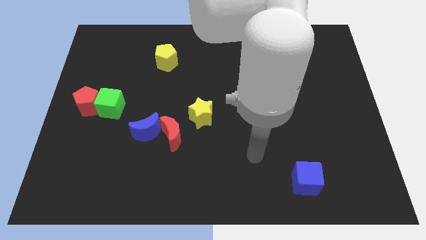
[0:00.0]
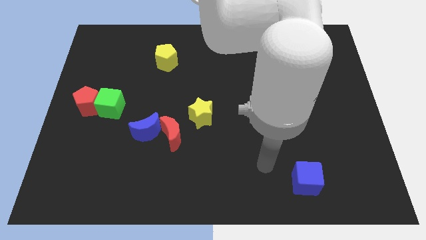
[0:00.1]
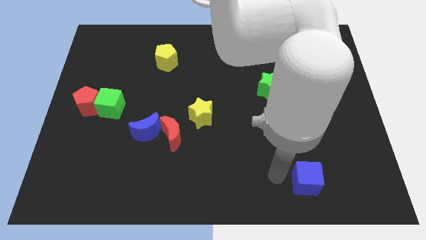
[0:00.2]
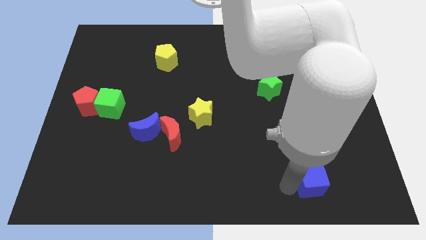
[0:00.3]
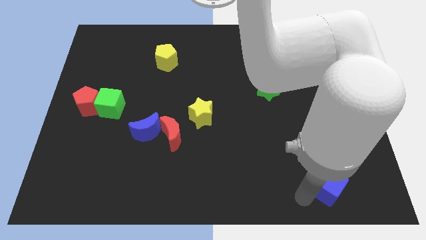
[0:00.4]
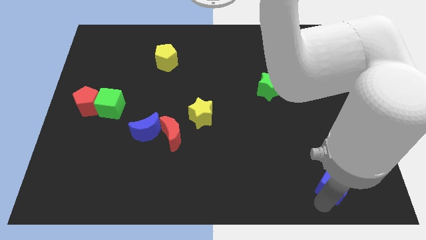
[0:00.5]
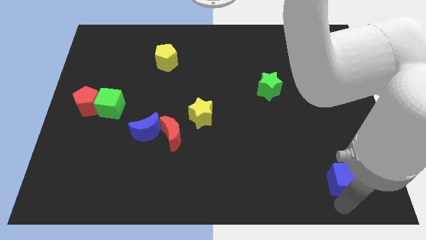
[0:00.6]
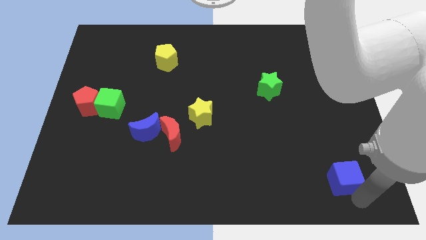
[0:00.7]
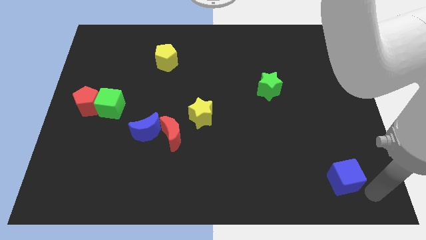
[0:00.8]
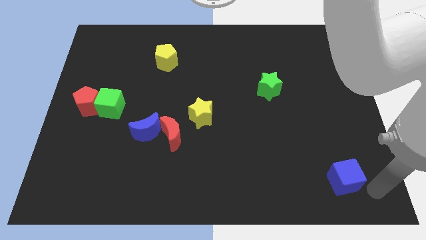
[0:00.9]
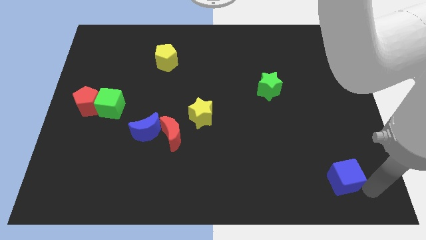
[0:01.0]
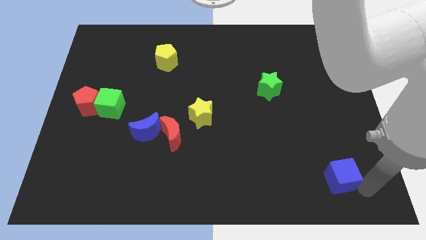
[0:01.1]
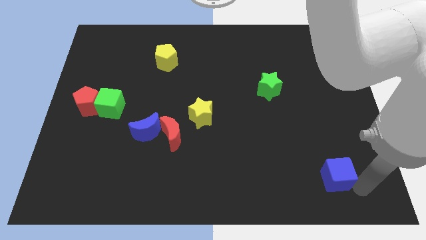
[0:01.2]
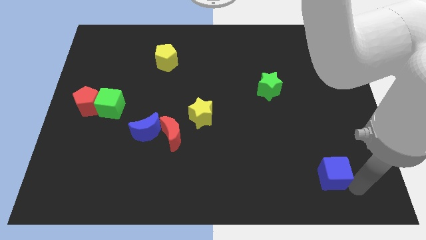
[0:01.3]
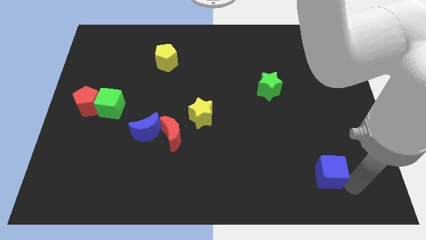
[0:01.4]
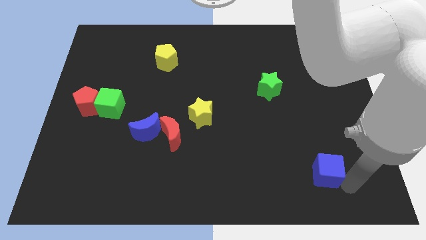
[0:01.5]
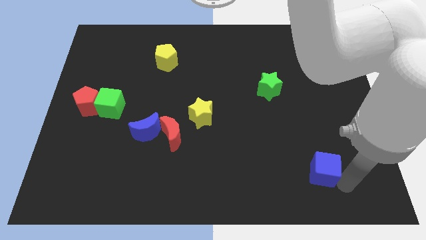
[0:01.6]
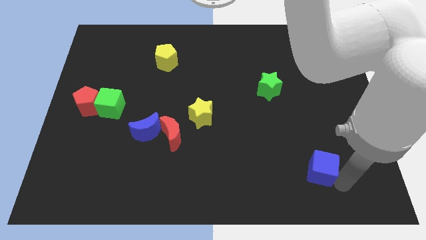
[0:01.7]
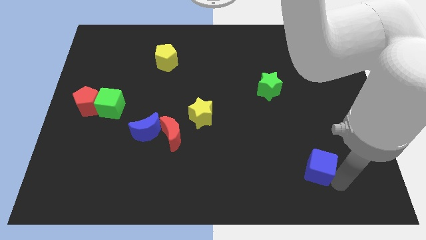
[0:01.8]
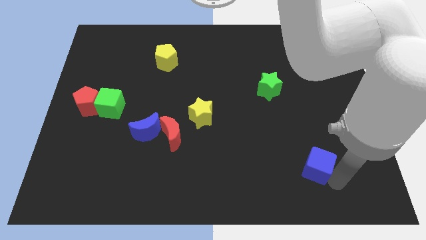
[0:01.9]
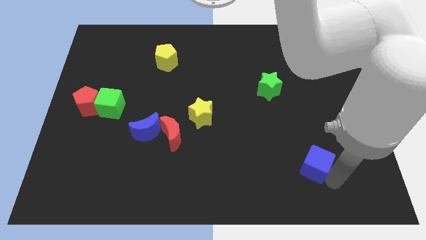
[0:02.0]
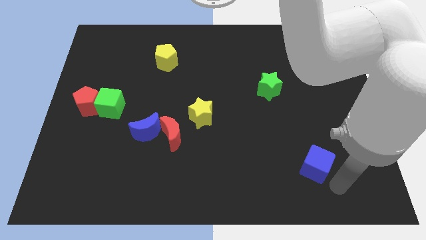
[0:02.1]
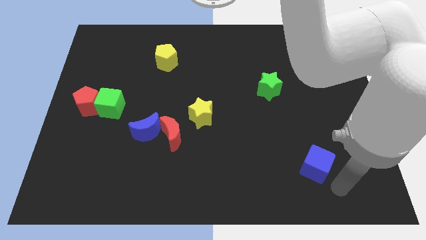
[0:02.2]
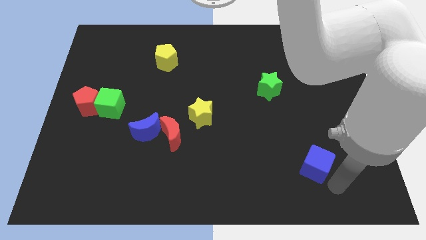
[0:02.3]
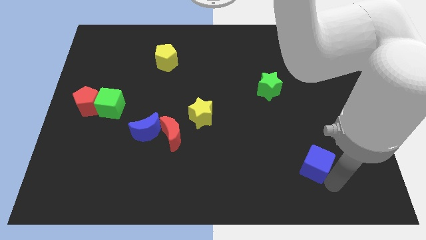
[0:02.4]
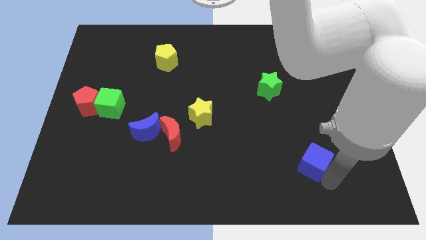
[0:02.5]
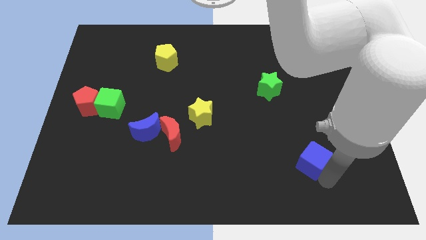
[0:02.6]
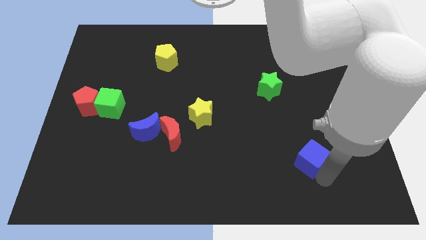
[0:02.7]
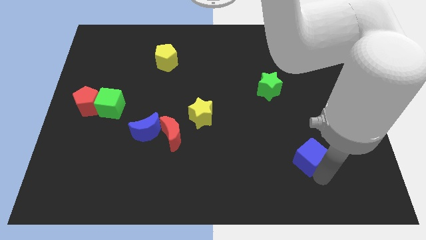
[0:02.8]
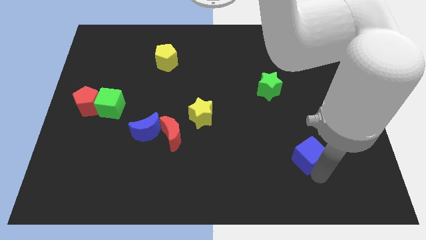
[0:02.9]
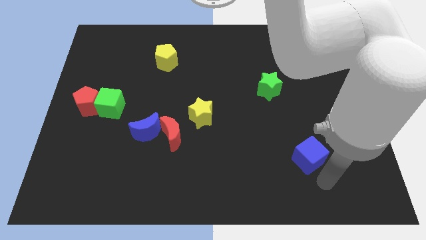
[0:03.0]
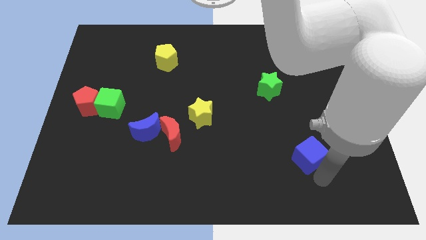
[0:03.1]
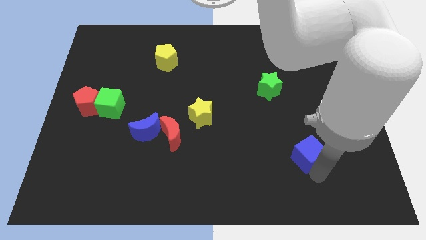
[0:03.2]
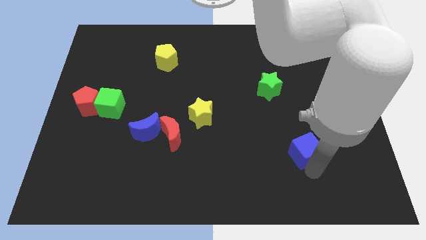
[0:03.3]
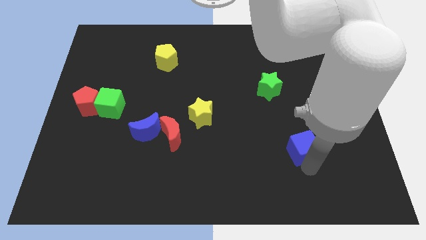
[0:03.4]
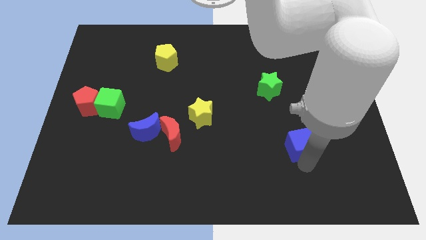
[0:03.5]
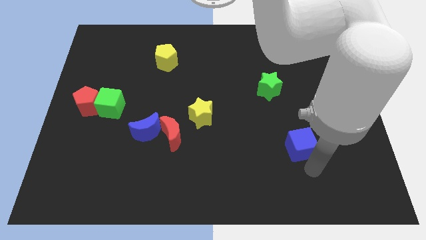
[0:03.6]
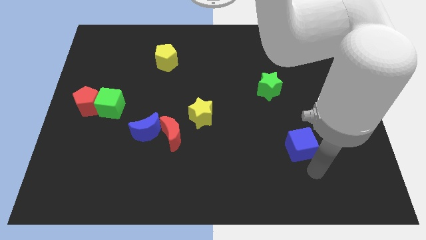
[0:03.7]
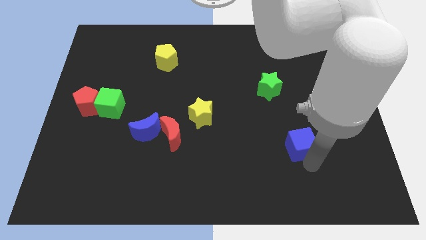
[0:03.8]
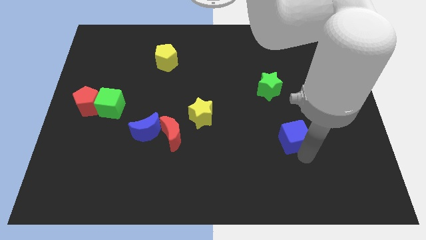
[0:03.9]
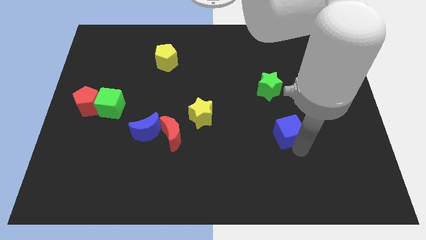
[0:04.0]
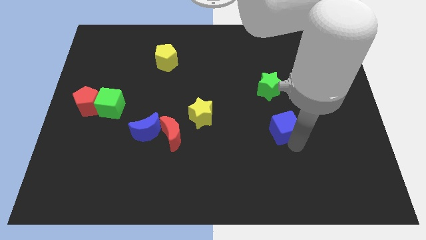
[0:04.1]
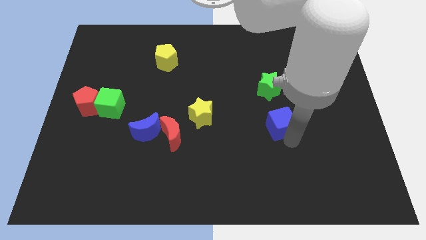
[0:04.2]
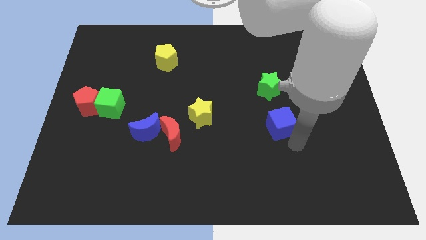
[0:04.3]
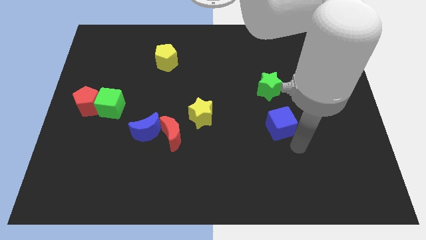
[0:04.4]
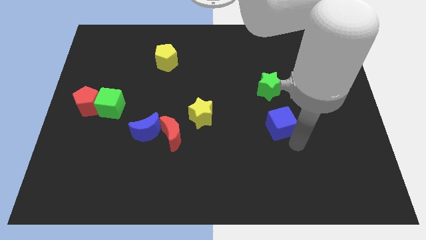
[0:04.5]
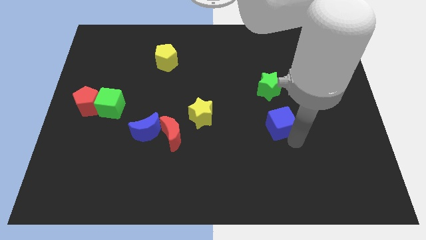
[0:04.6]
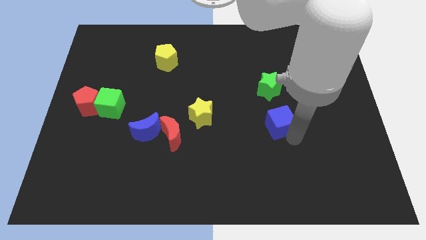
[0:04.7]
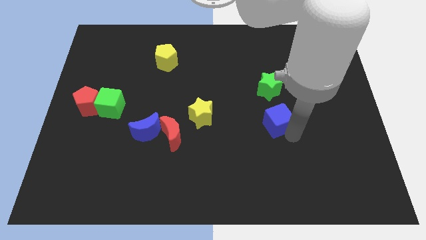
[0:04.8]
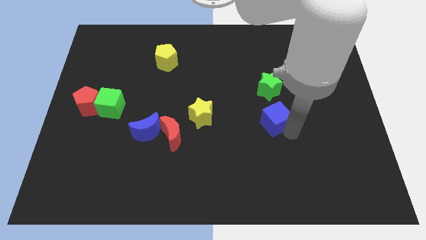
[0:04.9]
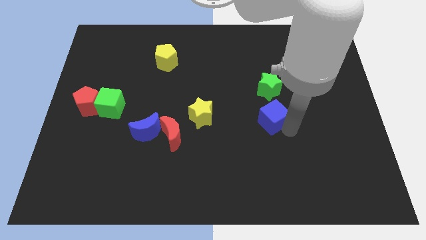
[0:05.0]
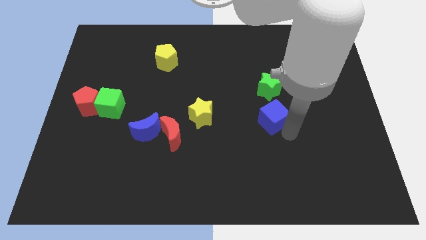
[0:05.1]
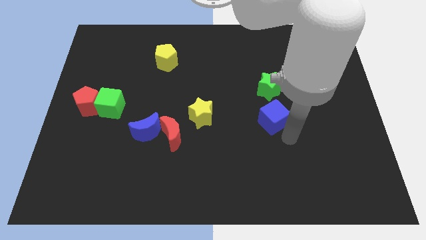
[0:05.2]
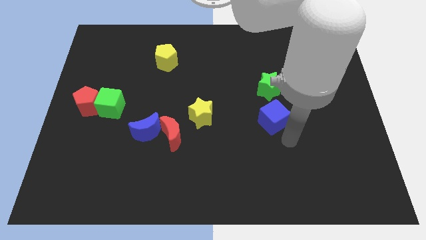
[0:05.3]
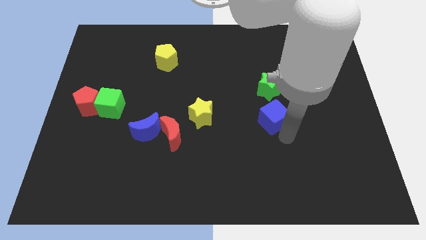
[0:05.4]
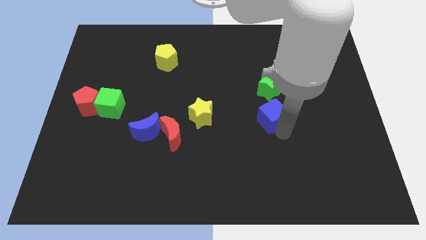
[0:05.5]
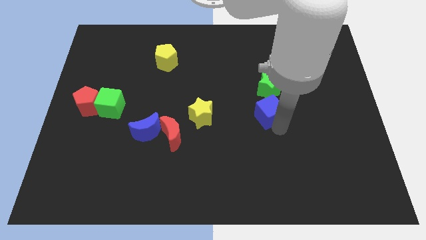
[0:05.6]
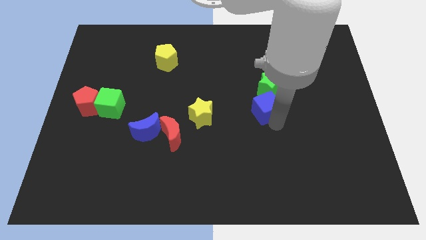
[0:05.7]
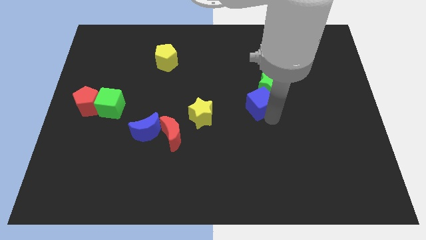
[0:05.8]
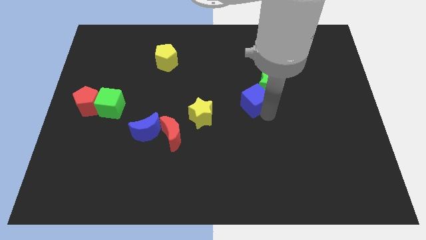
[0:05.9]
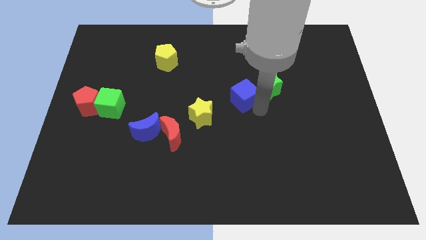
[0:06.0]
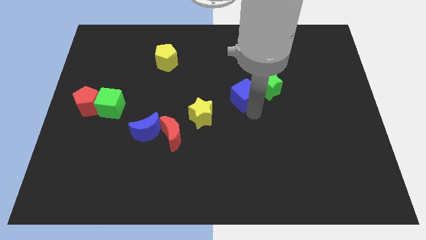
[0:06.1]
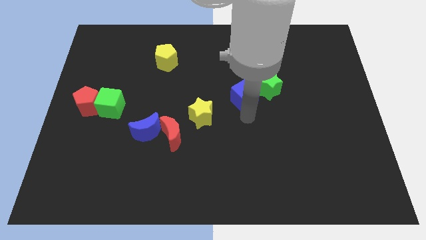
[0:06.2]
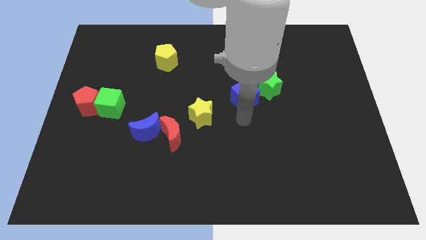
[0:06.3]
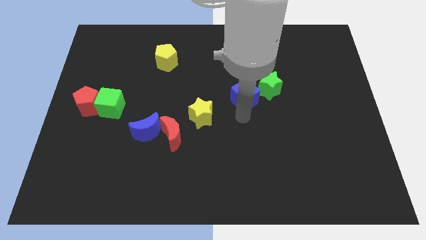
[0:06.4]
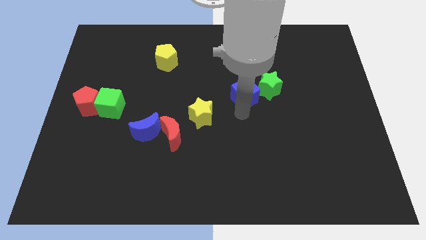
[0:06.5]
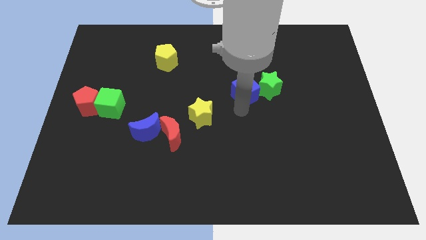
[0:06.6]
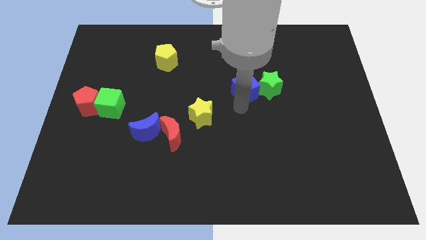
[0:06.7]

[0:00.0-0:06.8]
move the blue cube diagonally up and to the left of the green star
